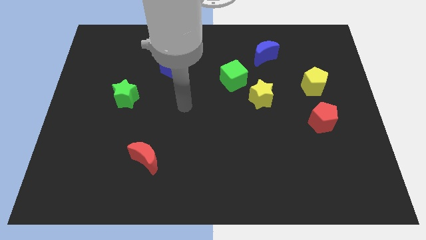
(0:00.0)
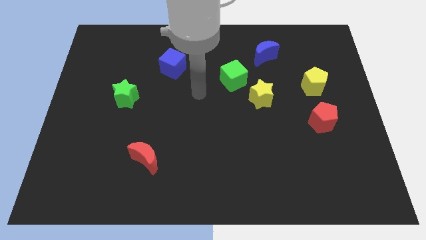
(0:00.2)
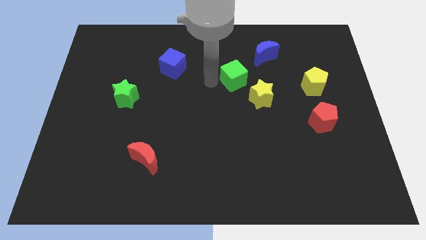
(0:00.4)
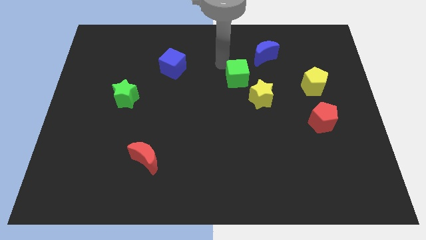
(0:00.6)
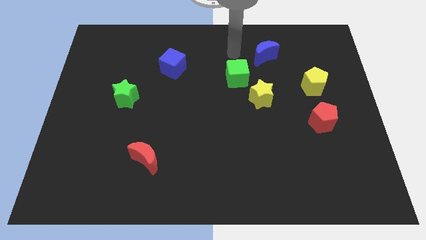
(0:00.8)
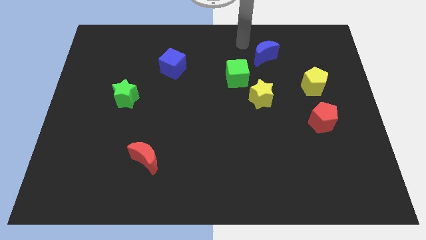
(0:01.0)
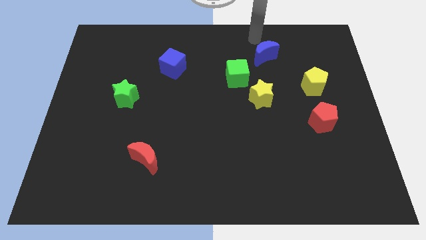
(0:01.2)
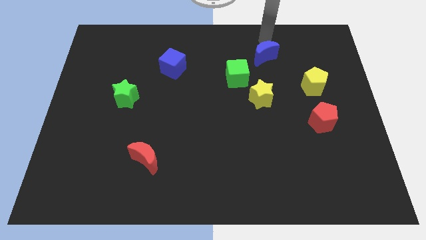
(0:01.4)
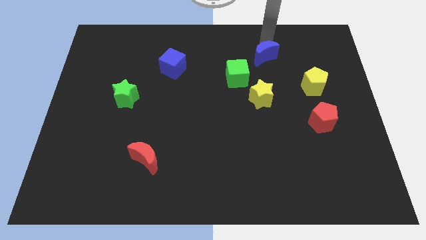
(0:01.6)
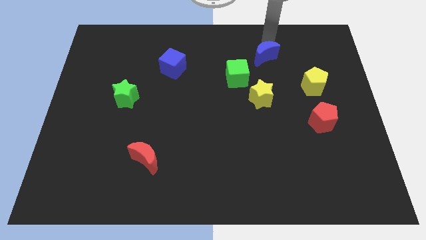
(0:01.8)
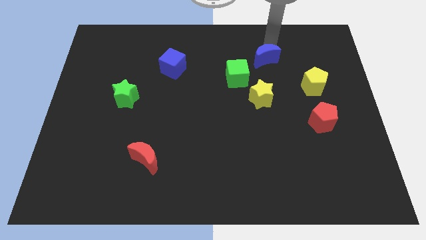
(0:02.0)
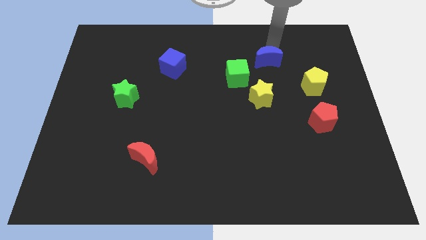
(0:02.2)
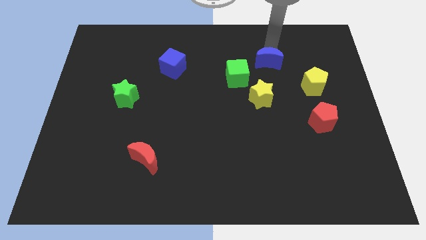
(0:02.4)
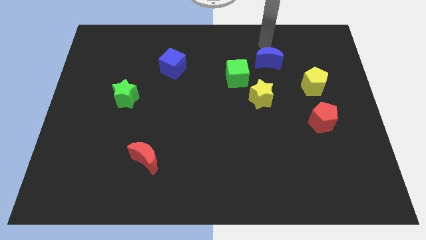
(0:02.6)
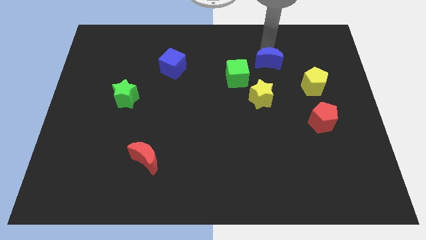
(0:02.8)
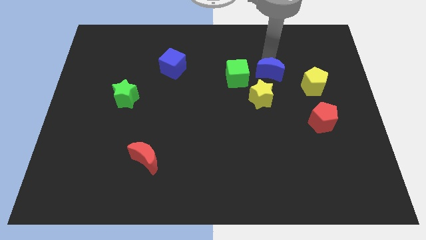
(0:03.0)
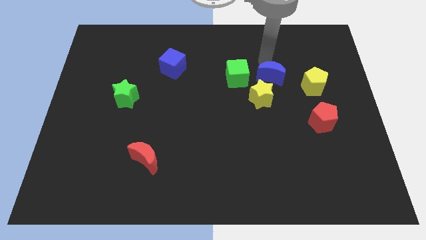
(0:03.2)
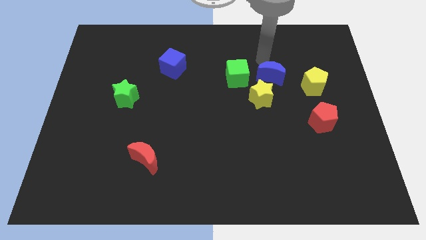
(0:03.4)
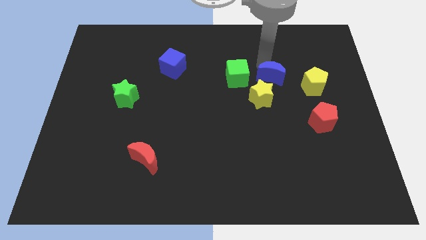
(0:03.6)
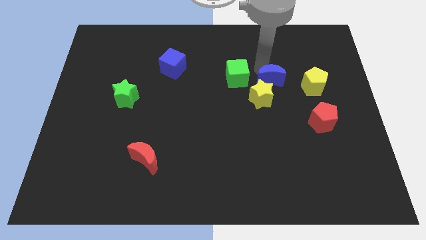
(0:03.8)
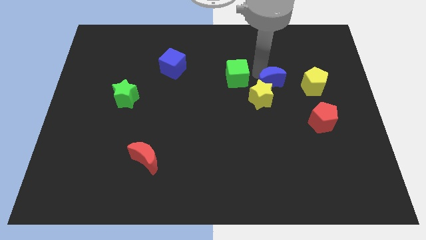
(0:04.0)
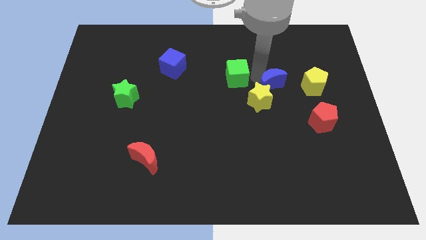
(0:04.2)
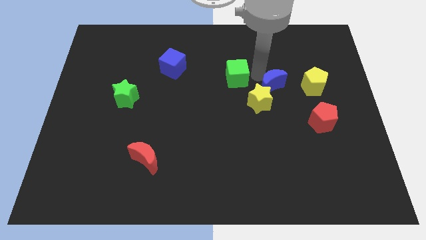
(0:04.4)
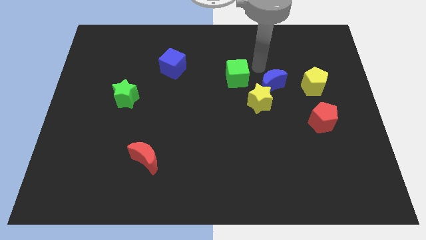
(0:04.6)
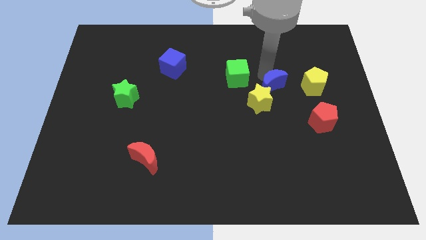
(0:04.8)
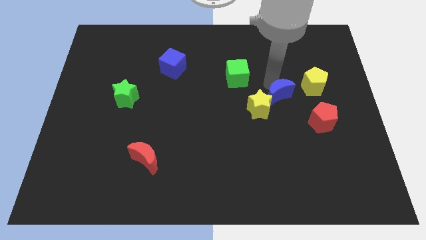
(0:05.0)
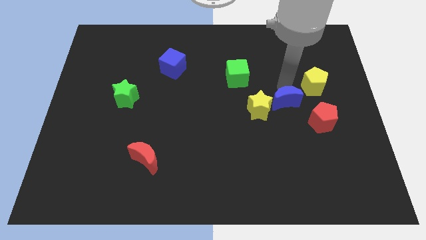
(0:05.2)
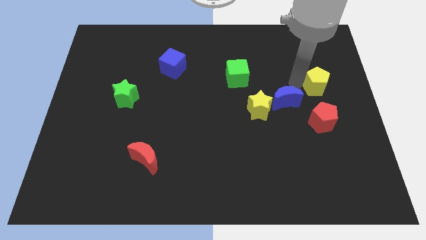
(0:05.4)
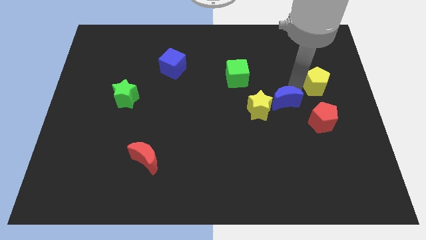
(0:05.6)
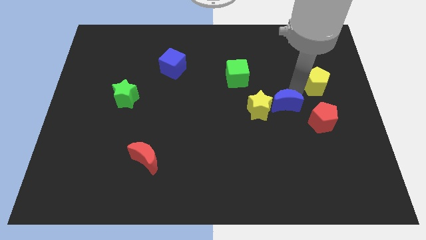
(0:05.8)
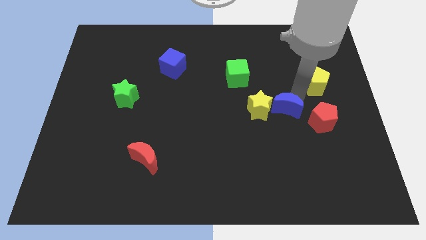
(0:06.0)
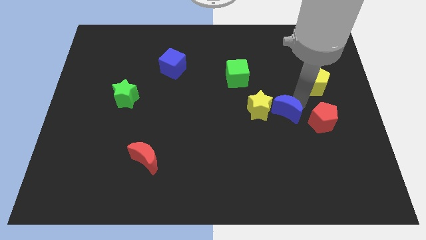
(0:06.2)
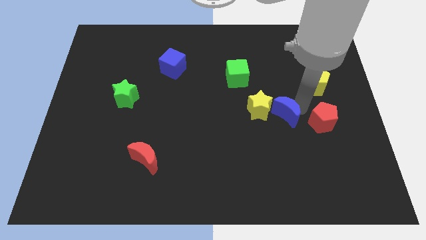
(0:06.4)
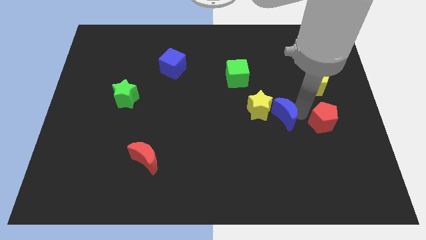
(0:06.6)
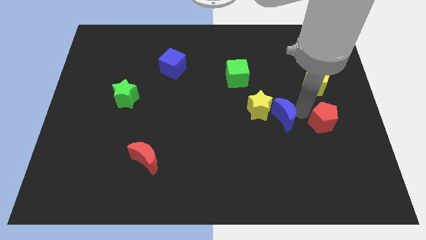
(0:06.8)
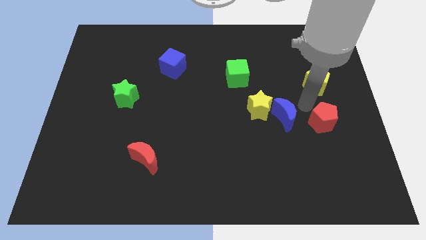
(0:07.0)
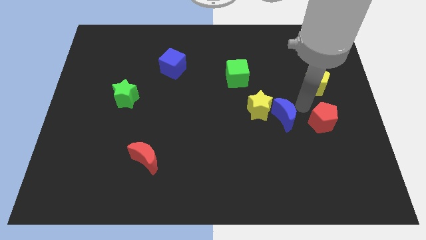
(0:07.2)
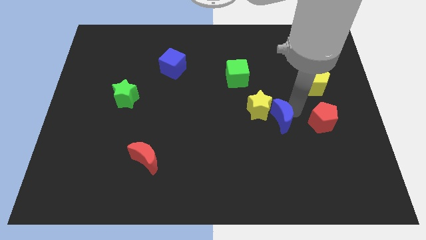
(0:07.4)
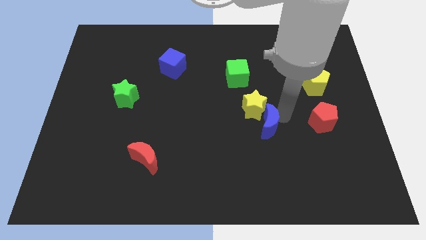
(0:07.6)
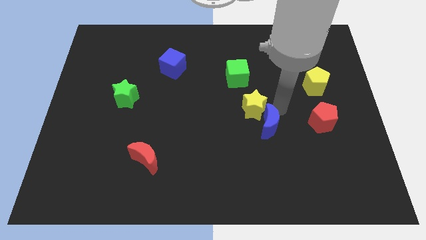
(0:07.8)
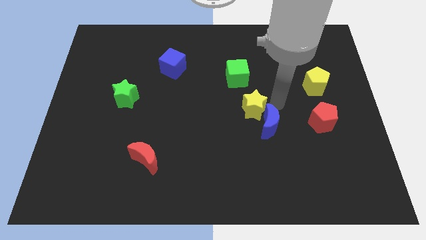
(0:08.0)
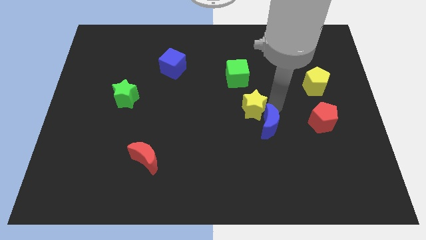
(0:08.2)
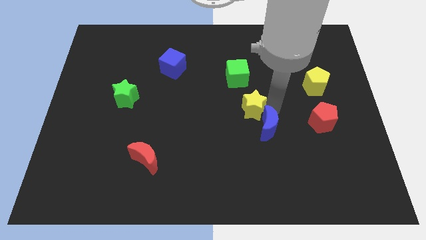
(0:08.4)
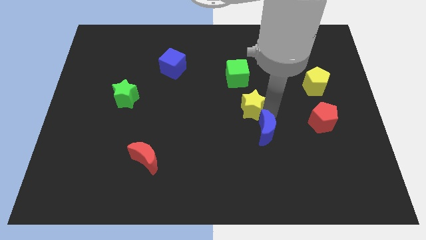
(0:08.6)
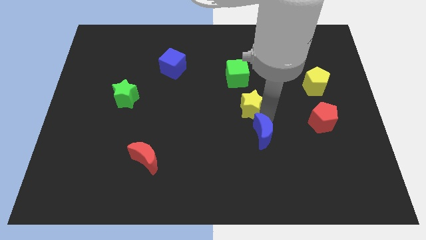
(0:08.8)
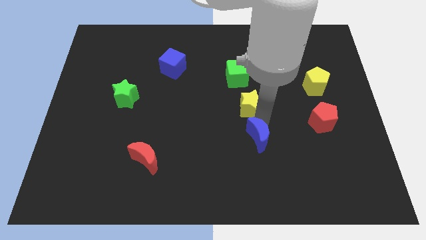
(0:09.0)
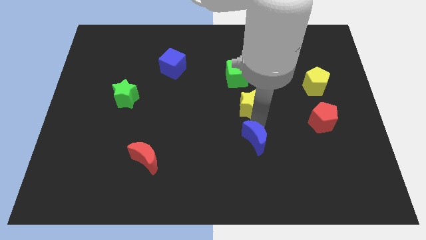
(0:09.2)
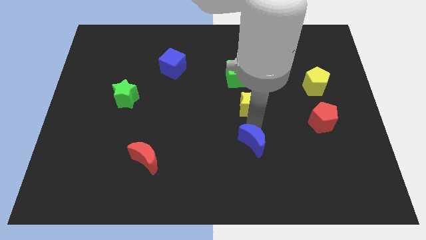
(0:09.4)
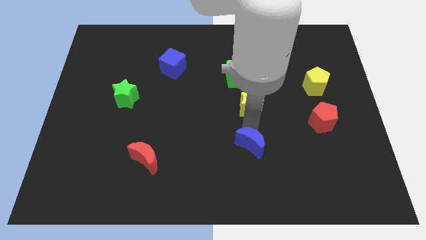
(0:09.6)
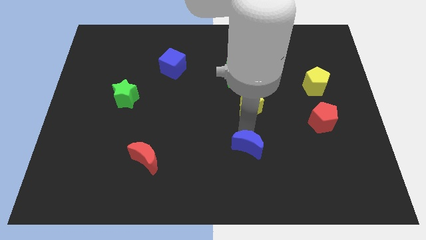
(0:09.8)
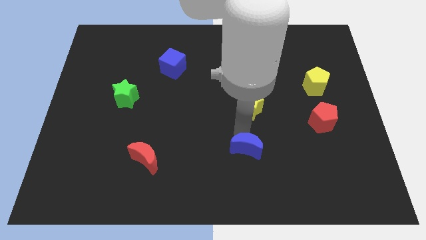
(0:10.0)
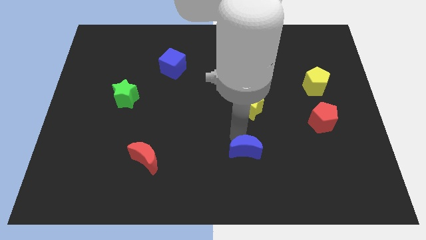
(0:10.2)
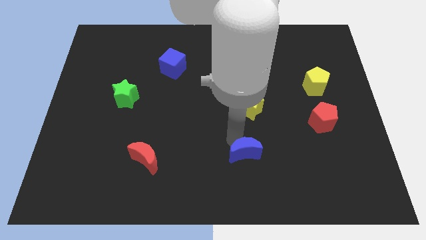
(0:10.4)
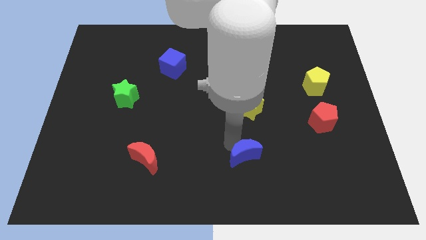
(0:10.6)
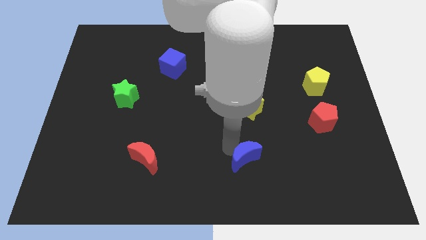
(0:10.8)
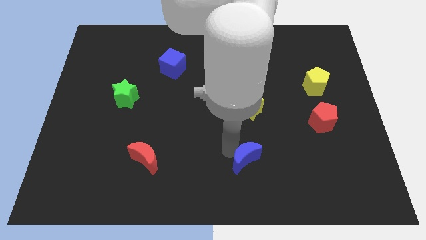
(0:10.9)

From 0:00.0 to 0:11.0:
move the blue moon to the bottom side

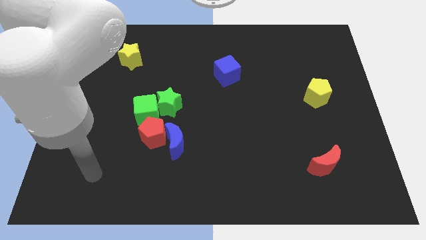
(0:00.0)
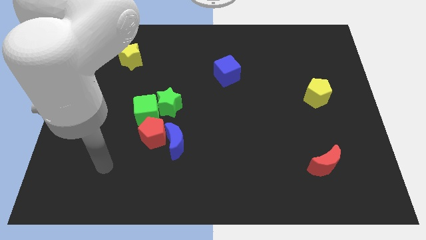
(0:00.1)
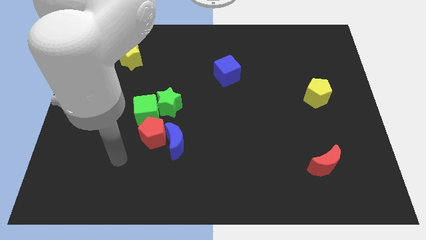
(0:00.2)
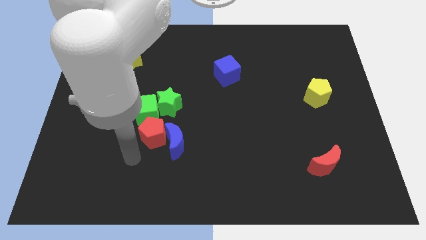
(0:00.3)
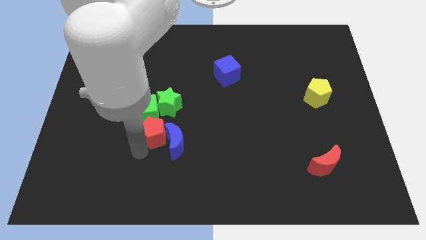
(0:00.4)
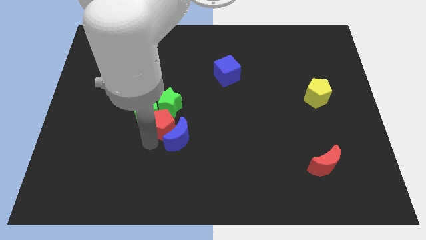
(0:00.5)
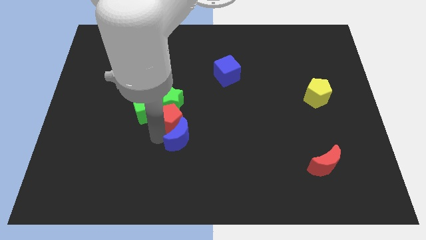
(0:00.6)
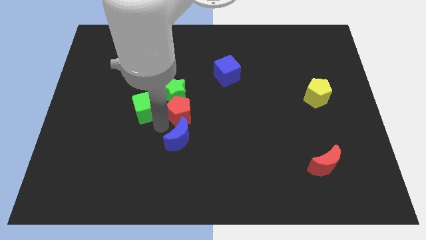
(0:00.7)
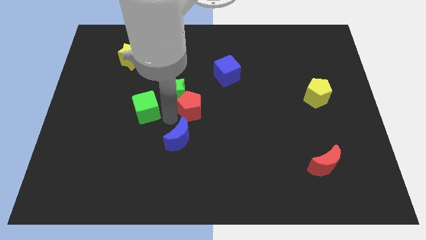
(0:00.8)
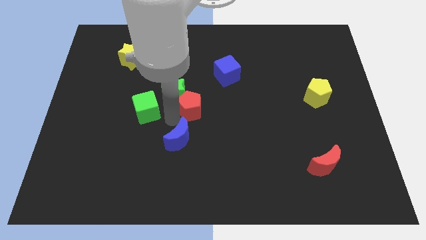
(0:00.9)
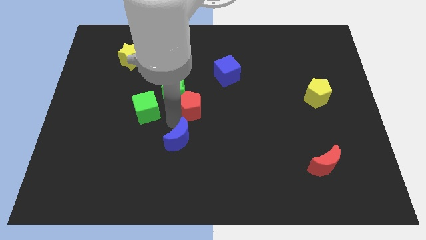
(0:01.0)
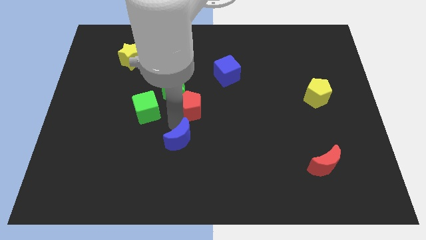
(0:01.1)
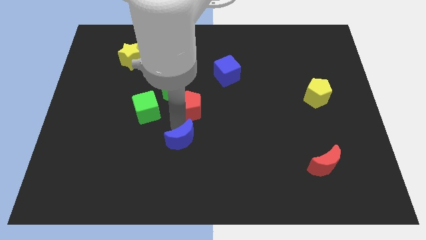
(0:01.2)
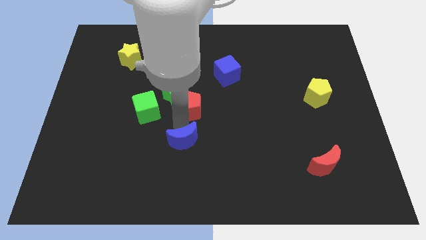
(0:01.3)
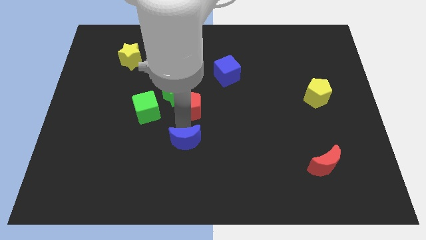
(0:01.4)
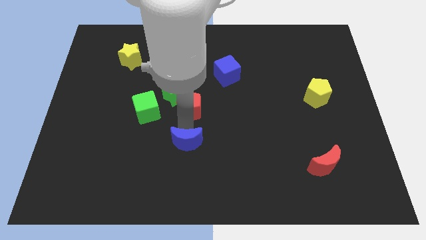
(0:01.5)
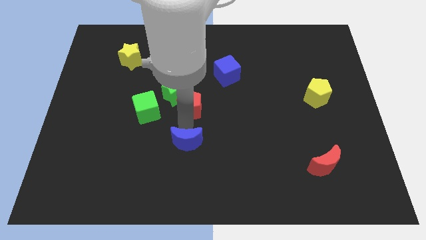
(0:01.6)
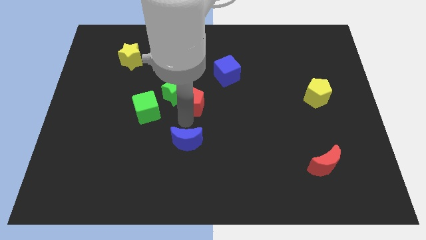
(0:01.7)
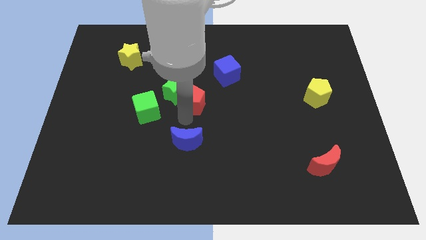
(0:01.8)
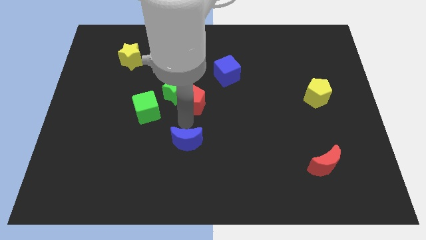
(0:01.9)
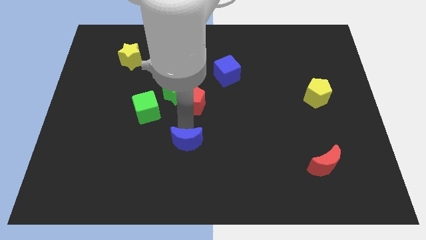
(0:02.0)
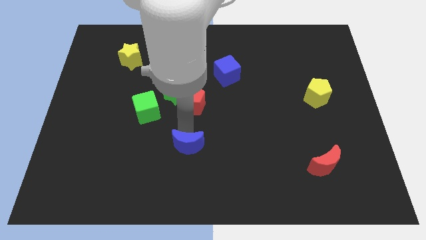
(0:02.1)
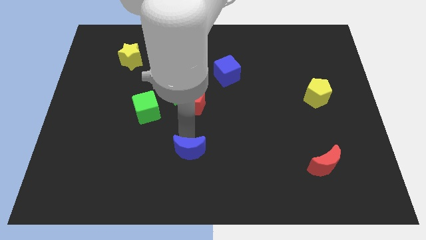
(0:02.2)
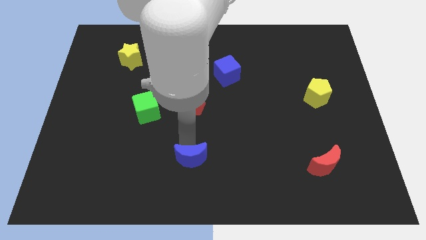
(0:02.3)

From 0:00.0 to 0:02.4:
slide the blue moon to the bottom
